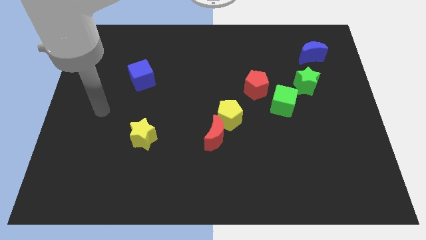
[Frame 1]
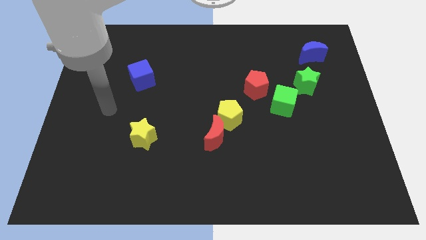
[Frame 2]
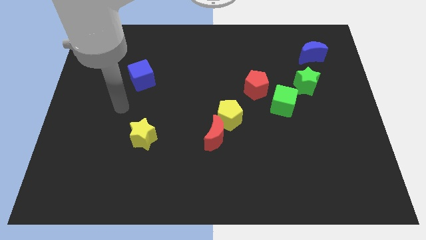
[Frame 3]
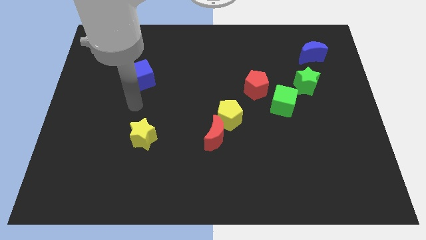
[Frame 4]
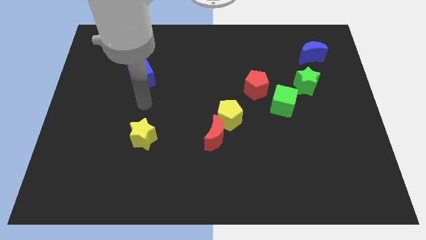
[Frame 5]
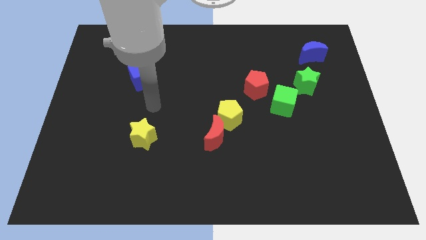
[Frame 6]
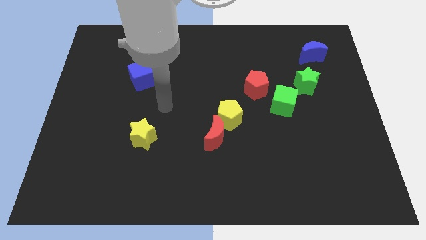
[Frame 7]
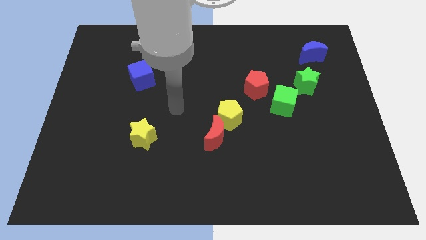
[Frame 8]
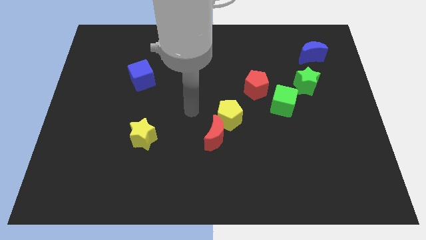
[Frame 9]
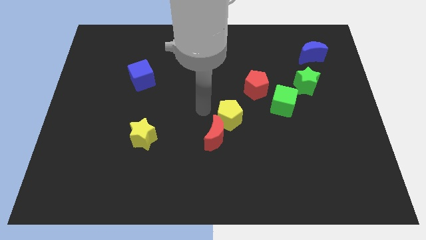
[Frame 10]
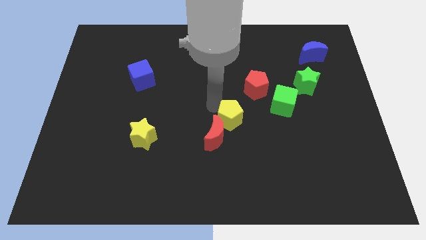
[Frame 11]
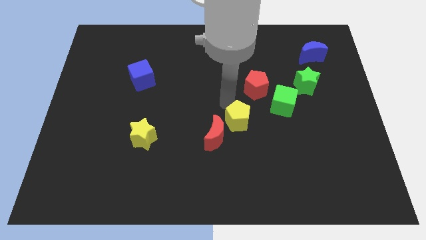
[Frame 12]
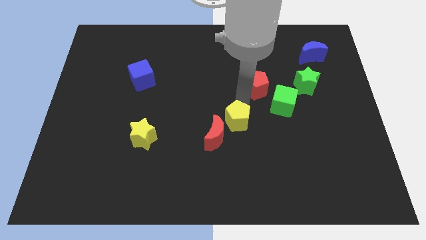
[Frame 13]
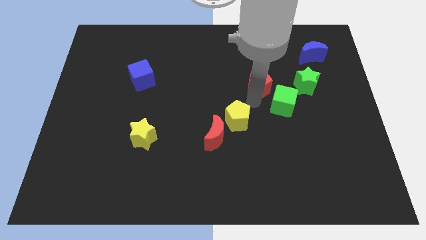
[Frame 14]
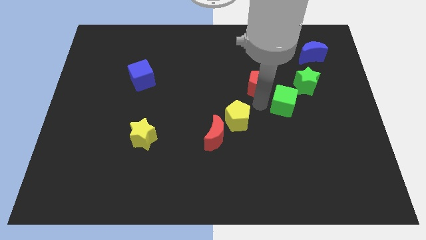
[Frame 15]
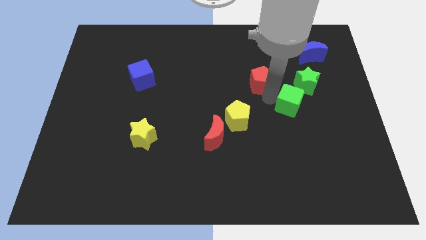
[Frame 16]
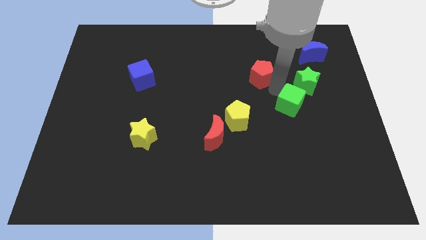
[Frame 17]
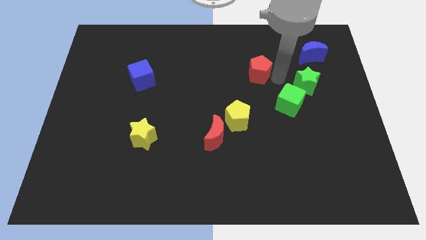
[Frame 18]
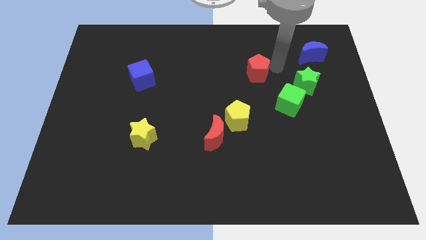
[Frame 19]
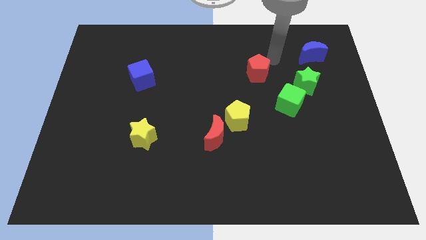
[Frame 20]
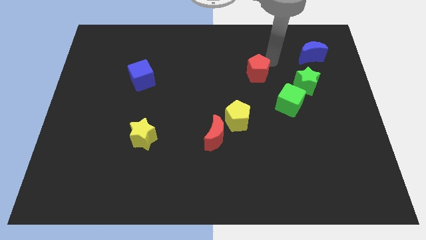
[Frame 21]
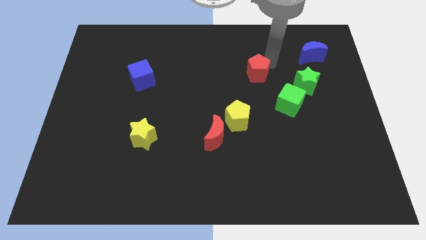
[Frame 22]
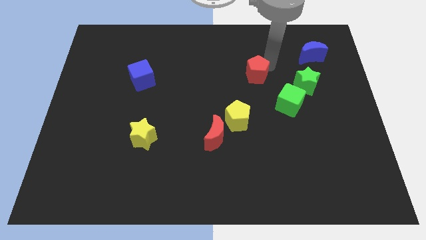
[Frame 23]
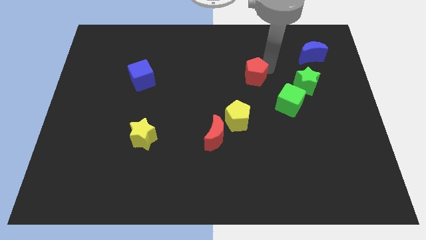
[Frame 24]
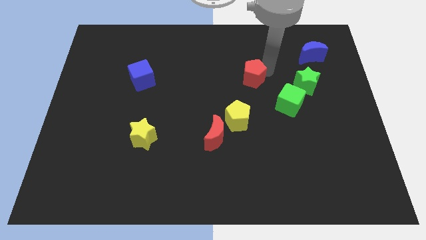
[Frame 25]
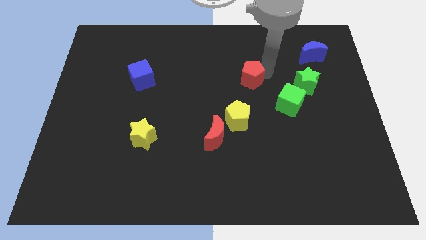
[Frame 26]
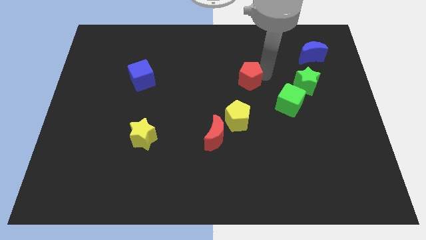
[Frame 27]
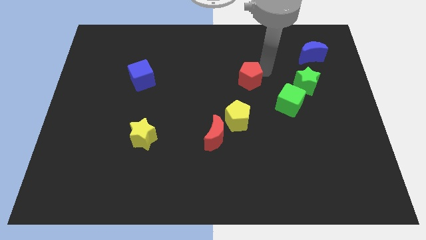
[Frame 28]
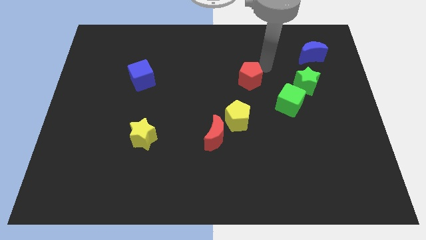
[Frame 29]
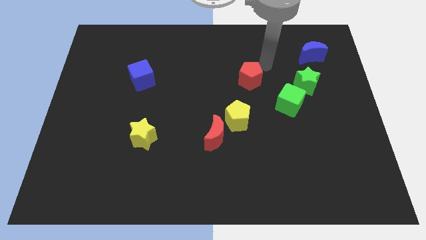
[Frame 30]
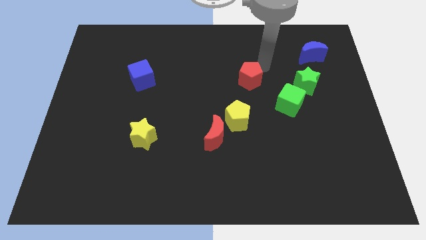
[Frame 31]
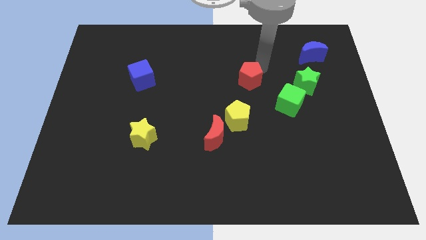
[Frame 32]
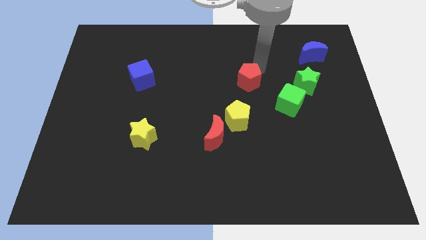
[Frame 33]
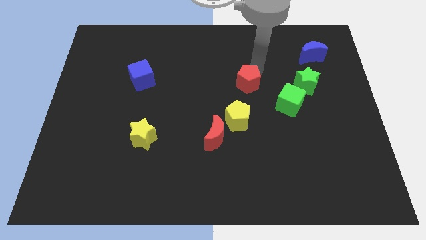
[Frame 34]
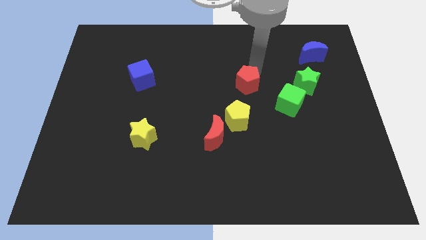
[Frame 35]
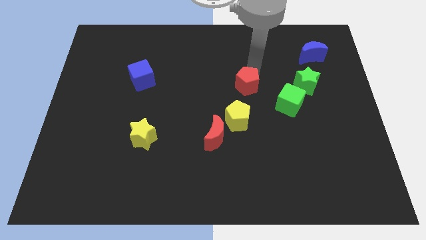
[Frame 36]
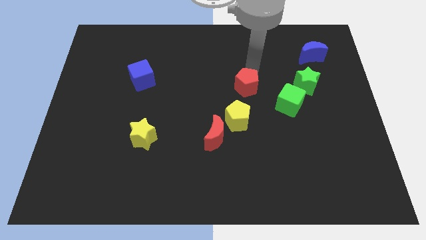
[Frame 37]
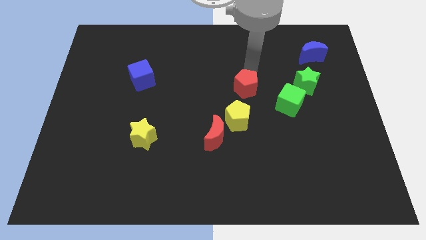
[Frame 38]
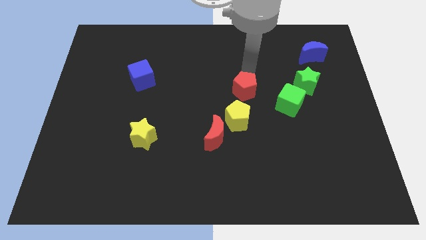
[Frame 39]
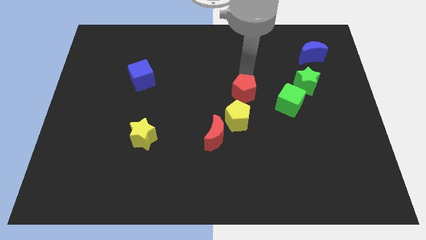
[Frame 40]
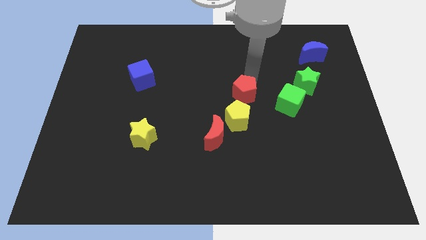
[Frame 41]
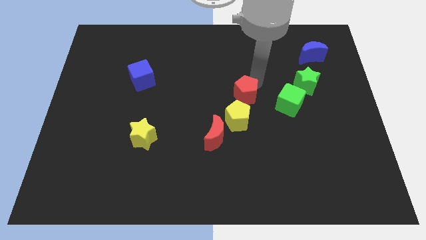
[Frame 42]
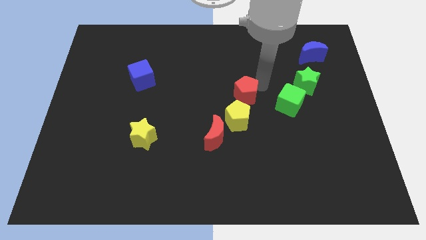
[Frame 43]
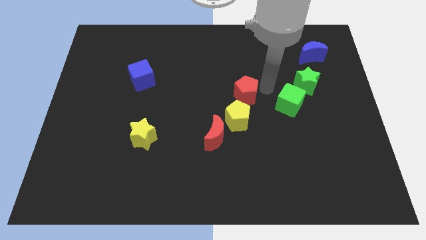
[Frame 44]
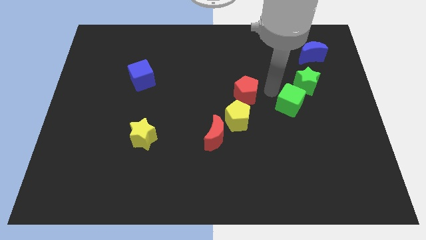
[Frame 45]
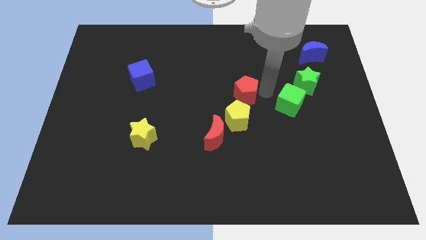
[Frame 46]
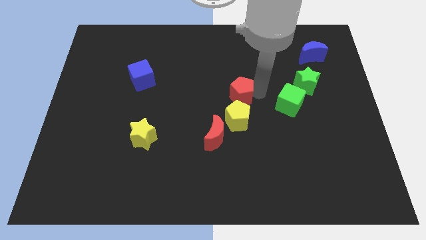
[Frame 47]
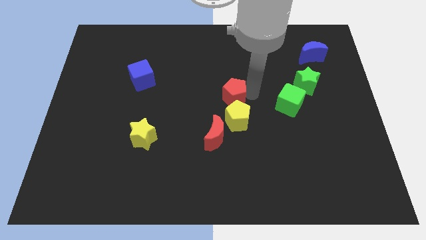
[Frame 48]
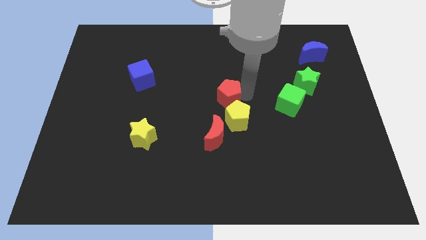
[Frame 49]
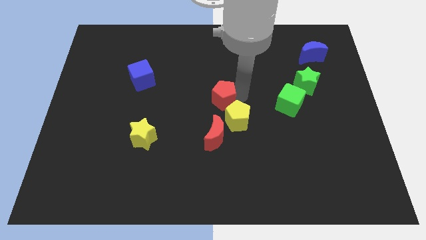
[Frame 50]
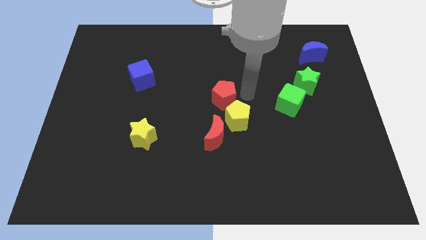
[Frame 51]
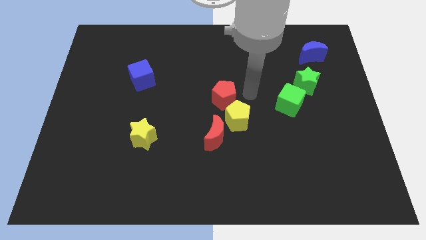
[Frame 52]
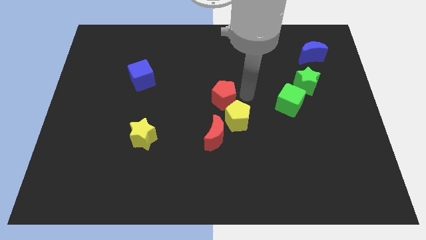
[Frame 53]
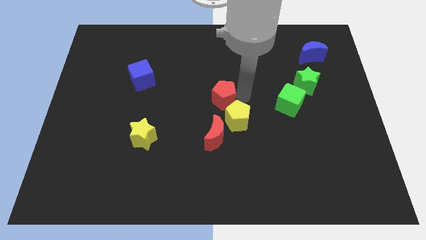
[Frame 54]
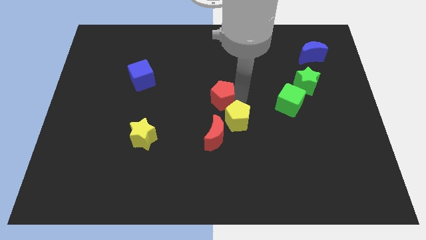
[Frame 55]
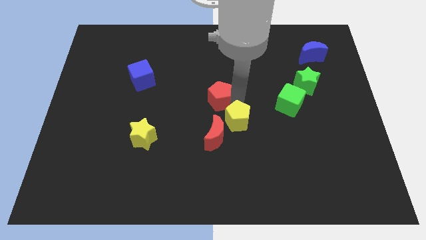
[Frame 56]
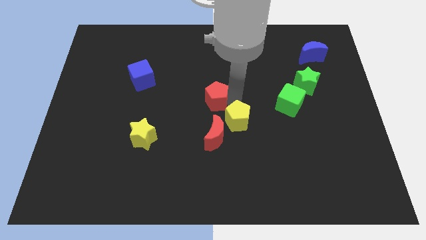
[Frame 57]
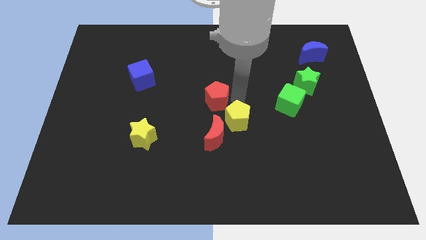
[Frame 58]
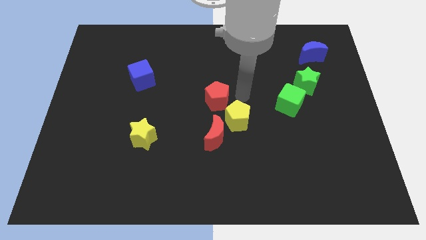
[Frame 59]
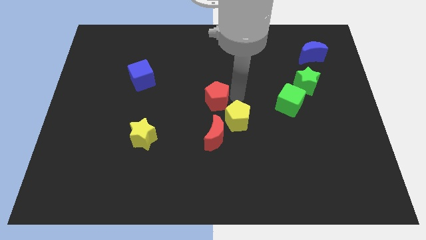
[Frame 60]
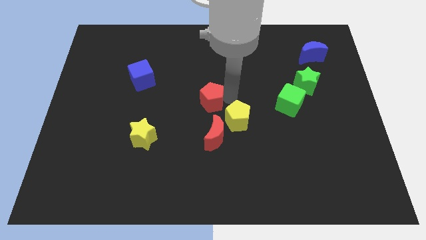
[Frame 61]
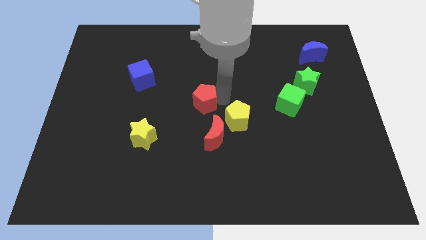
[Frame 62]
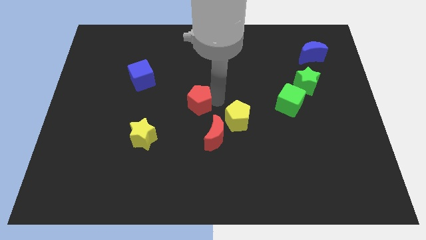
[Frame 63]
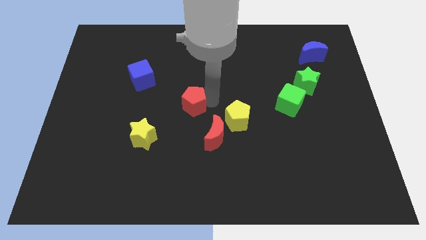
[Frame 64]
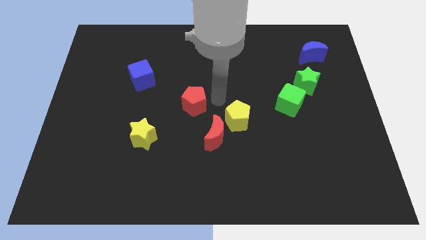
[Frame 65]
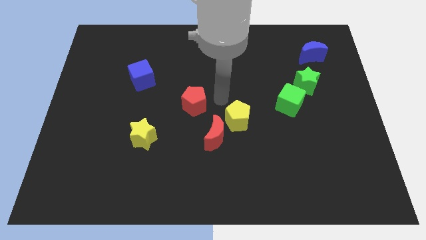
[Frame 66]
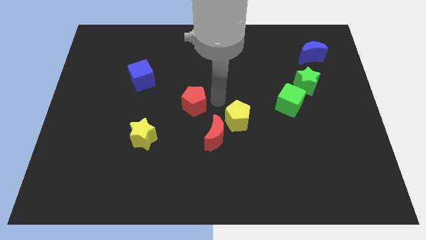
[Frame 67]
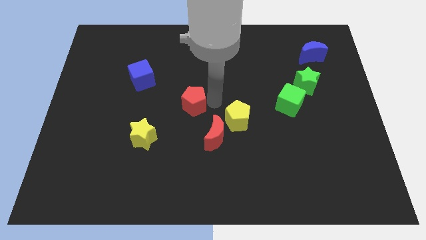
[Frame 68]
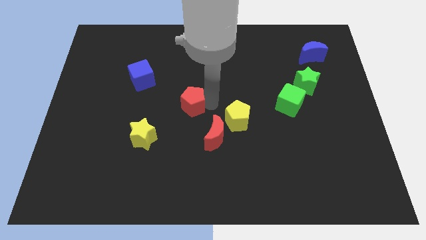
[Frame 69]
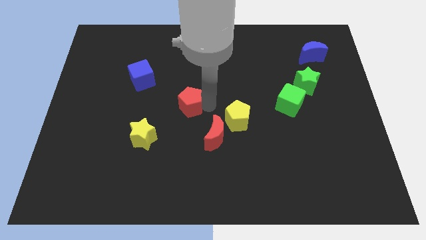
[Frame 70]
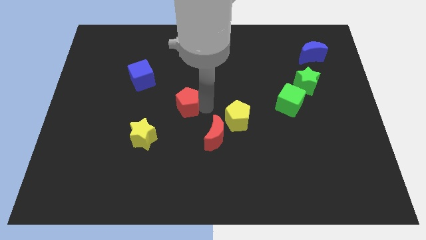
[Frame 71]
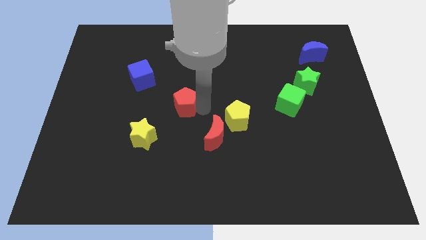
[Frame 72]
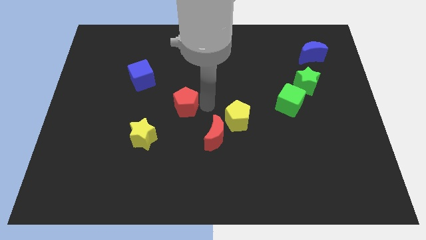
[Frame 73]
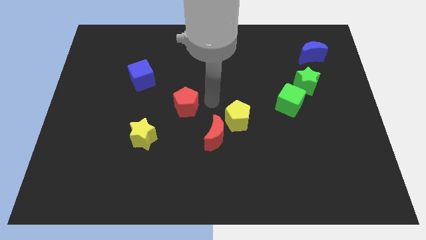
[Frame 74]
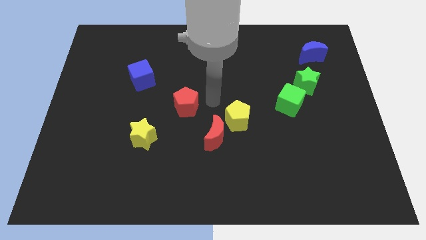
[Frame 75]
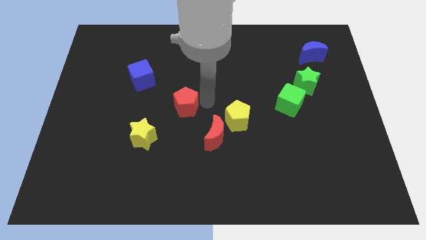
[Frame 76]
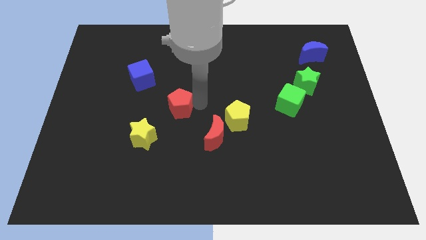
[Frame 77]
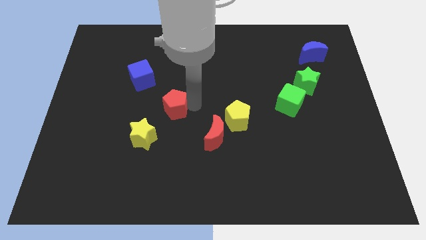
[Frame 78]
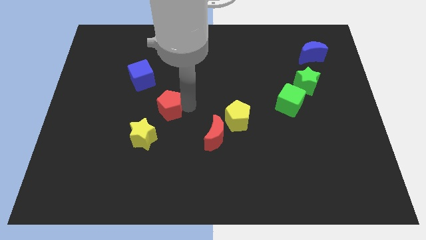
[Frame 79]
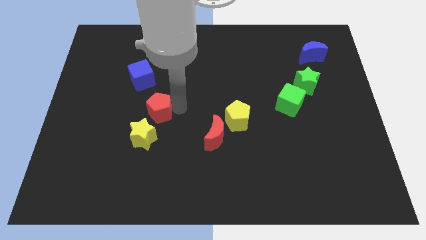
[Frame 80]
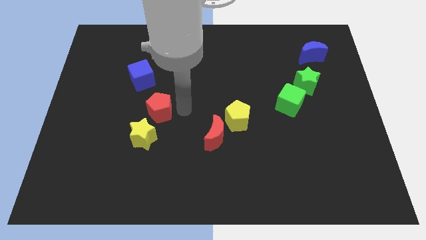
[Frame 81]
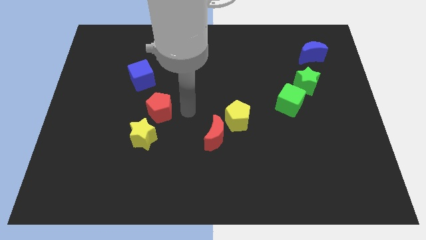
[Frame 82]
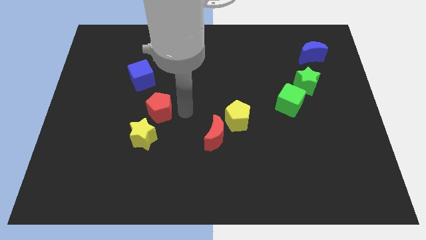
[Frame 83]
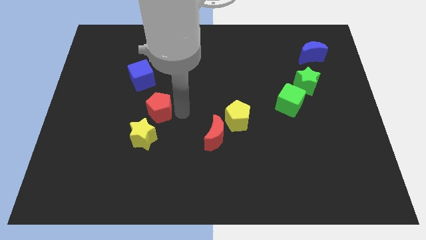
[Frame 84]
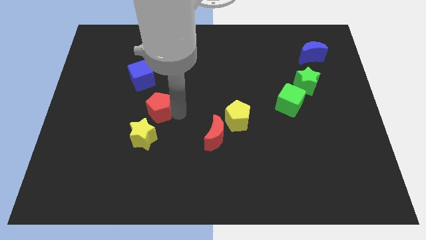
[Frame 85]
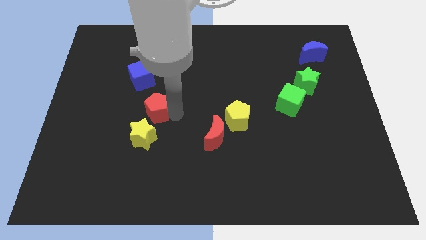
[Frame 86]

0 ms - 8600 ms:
slide the red pentagon to the bottom of the blue cube
